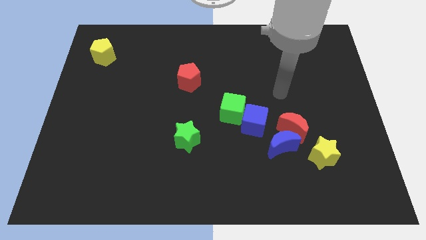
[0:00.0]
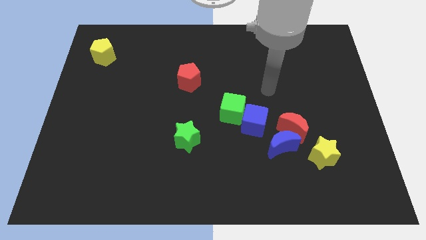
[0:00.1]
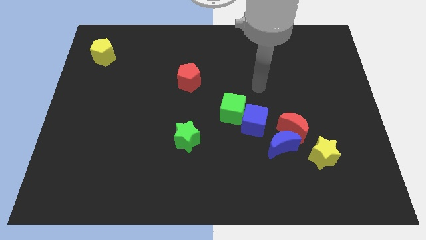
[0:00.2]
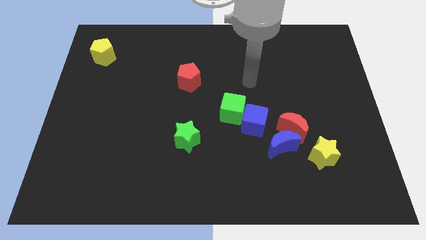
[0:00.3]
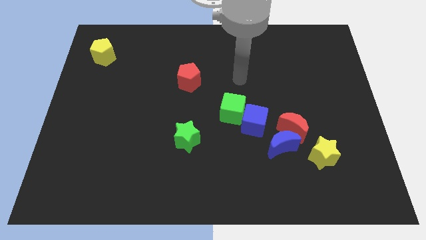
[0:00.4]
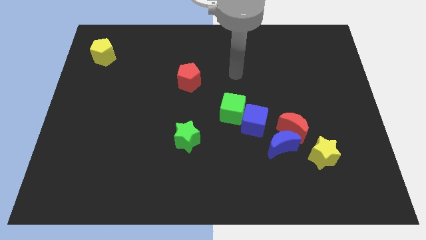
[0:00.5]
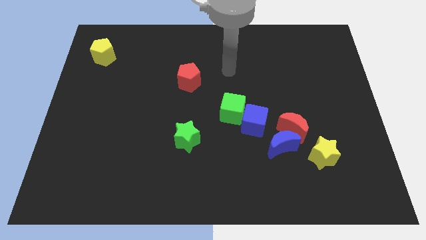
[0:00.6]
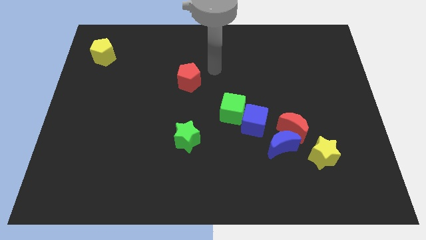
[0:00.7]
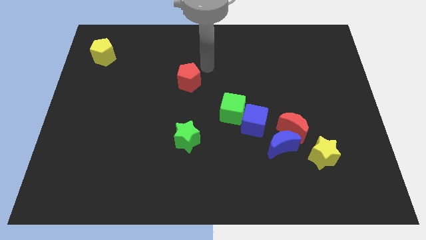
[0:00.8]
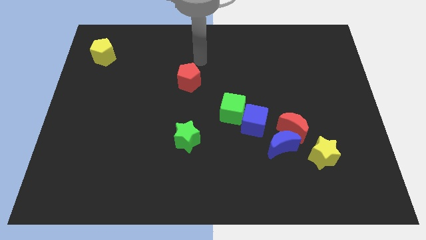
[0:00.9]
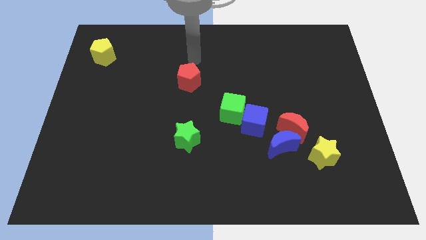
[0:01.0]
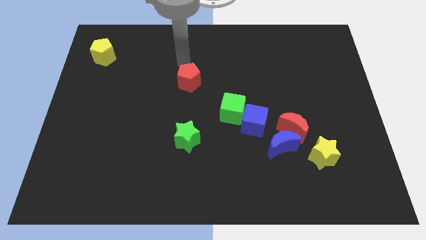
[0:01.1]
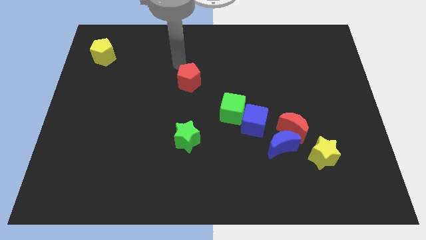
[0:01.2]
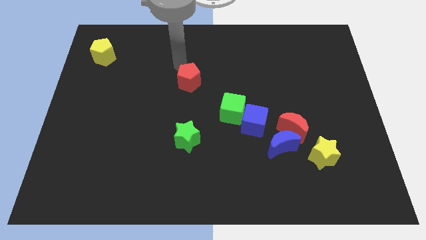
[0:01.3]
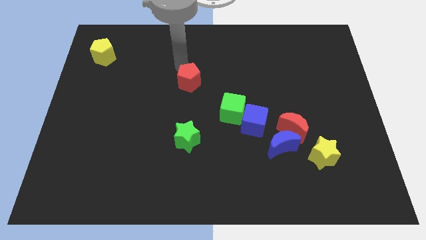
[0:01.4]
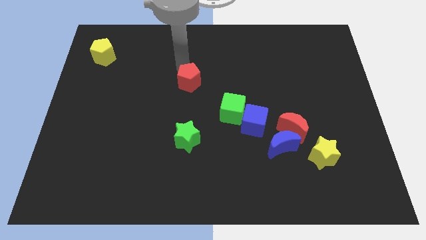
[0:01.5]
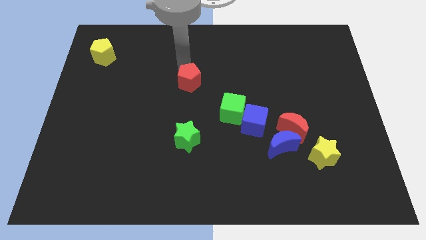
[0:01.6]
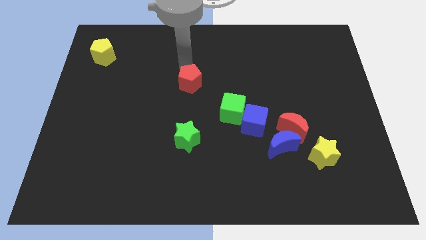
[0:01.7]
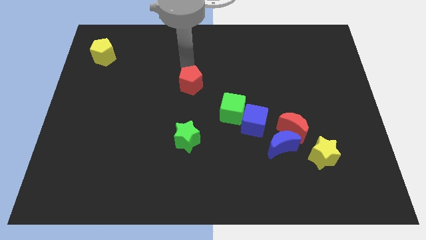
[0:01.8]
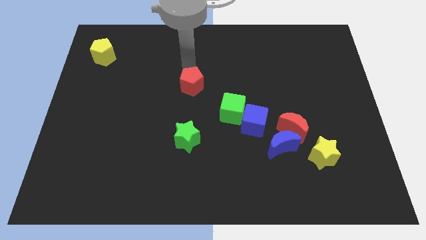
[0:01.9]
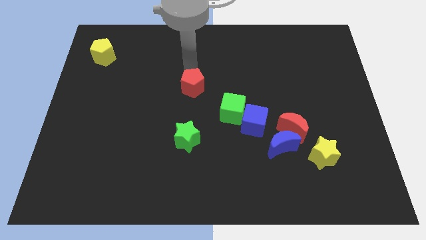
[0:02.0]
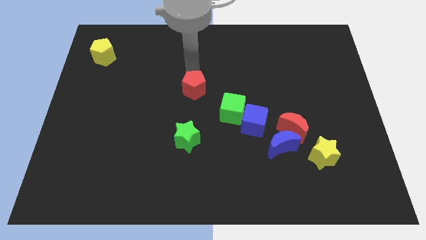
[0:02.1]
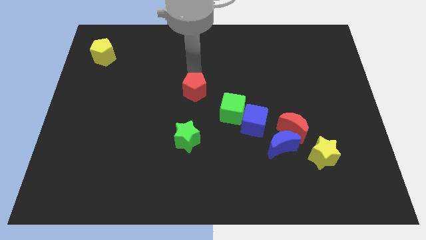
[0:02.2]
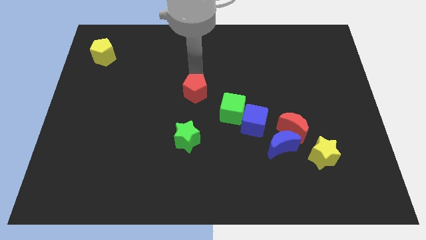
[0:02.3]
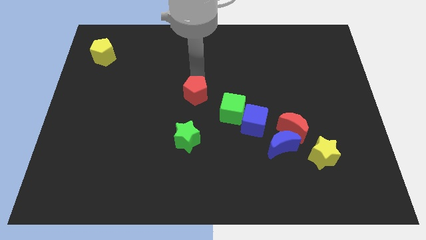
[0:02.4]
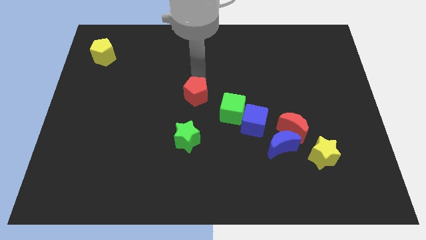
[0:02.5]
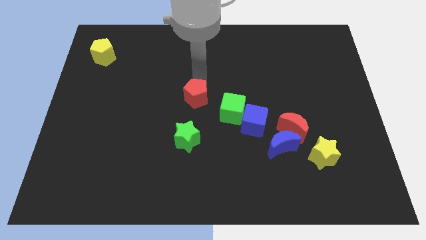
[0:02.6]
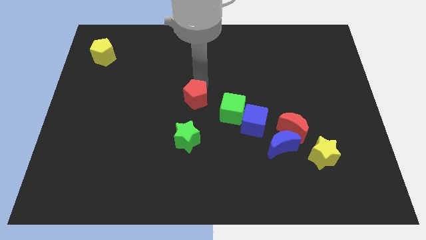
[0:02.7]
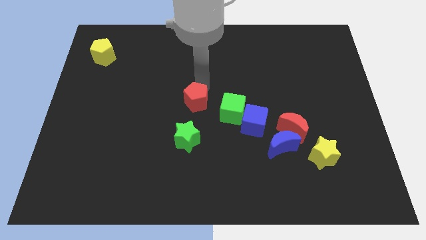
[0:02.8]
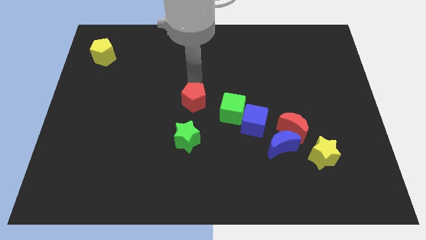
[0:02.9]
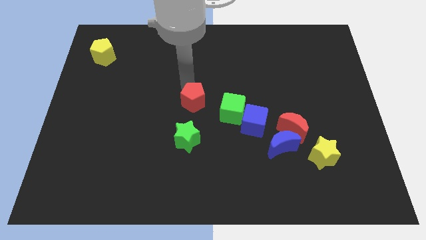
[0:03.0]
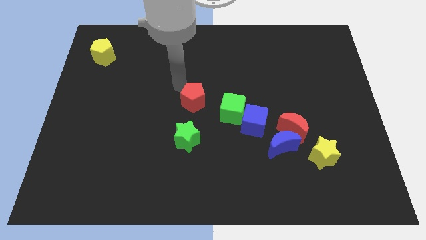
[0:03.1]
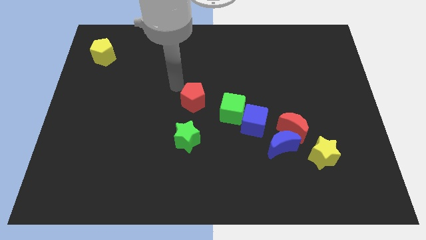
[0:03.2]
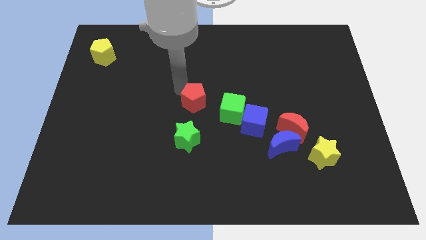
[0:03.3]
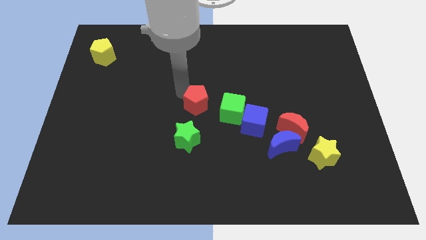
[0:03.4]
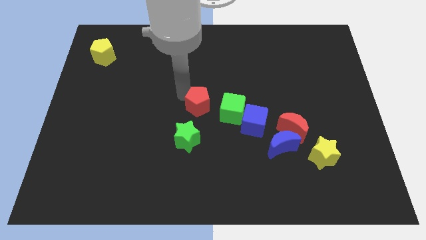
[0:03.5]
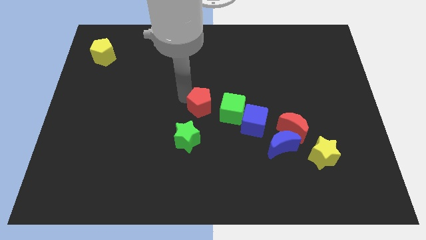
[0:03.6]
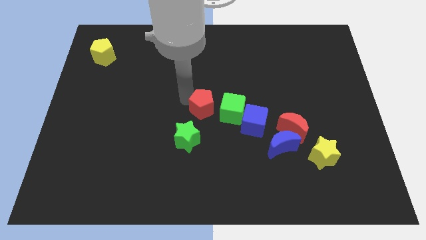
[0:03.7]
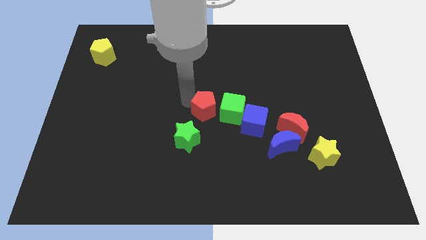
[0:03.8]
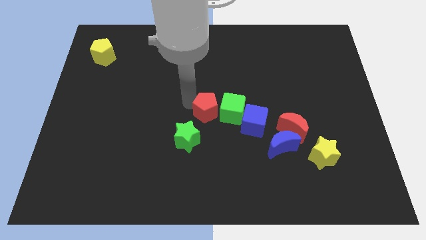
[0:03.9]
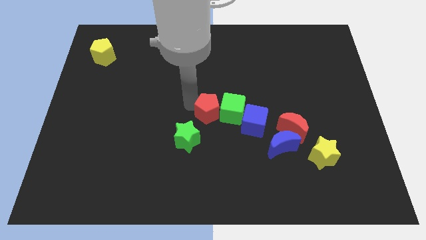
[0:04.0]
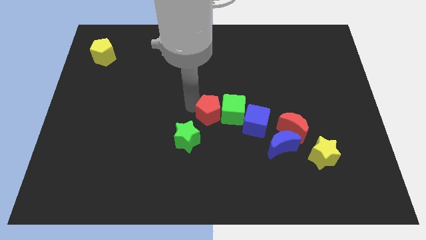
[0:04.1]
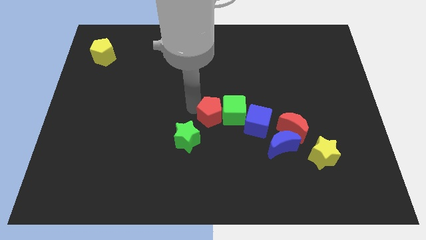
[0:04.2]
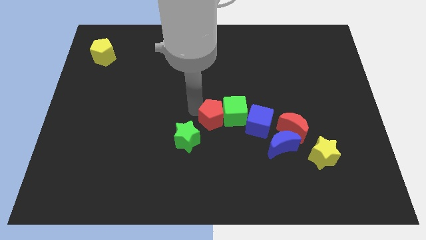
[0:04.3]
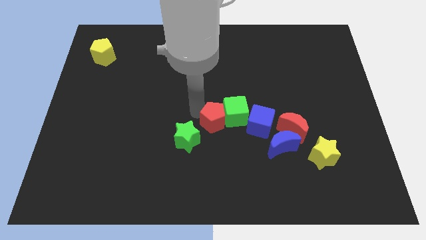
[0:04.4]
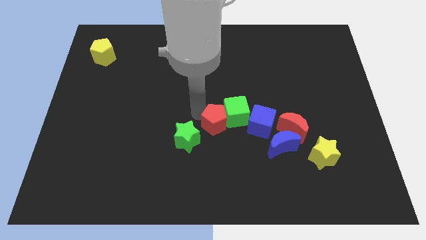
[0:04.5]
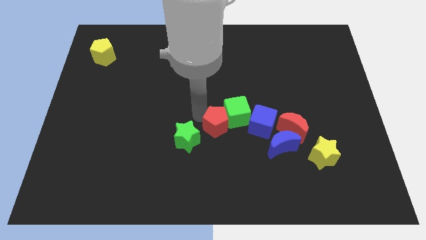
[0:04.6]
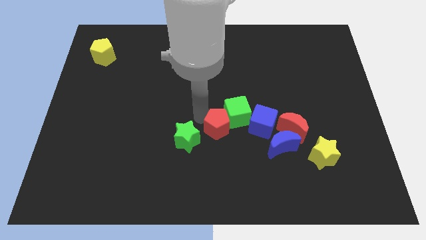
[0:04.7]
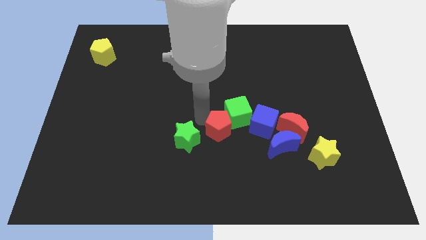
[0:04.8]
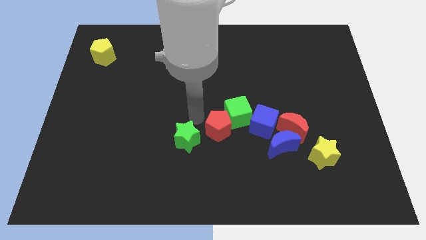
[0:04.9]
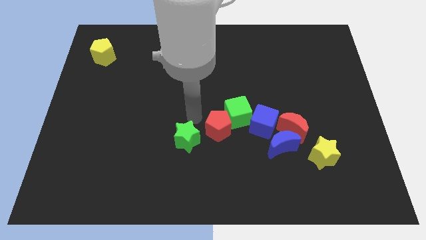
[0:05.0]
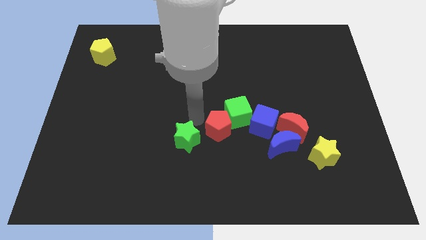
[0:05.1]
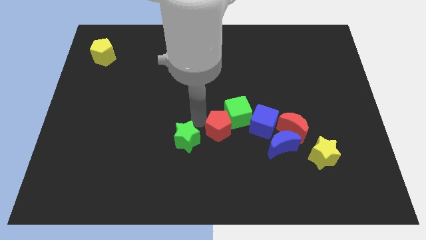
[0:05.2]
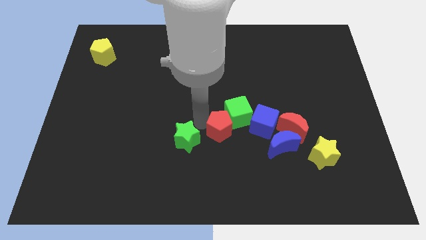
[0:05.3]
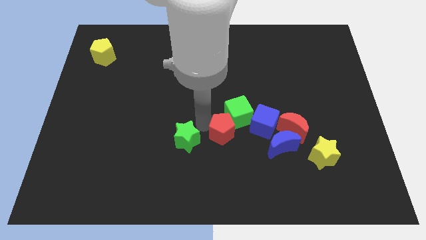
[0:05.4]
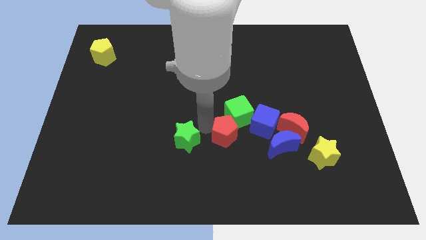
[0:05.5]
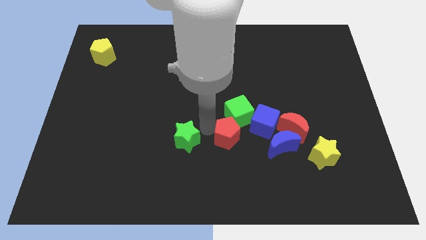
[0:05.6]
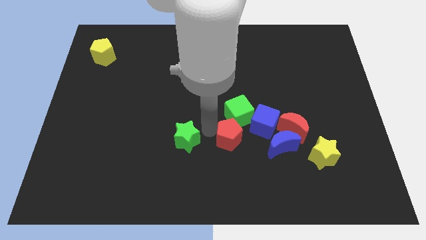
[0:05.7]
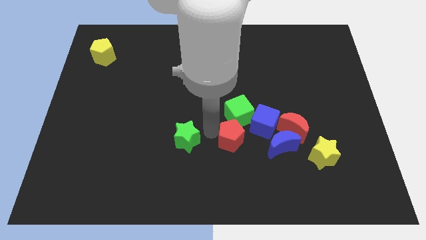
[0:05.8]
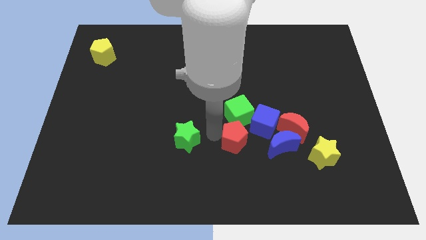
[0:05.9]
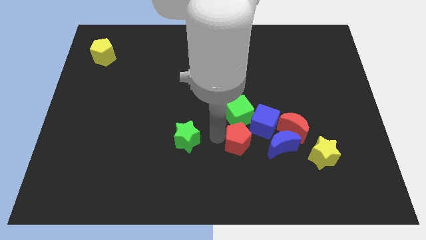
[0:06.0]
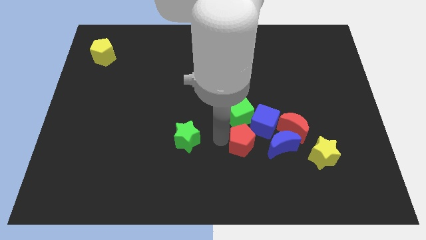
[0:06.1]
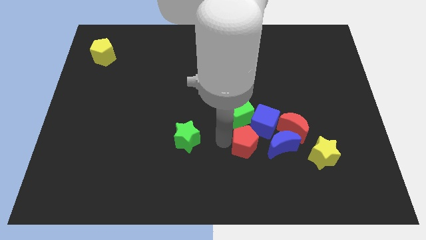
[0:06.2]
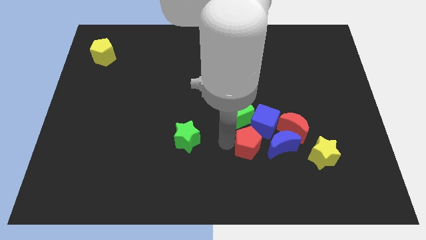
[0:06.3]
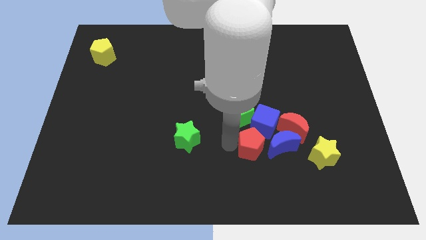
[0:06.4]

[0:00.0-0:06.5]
move the red pentagon just left of the yellow star

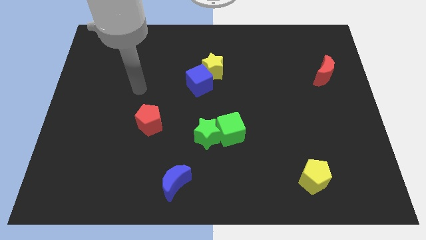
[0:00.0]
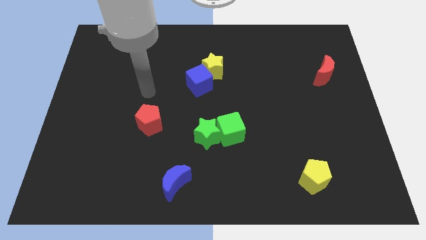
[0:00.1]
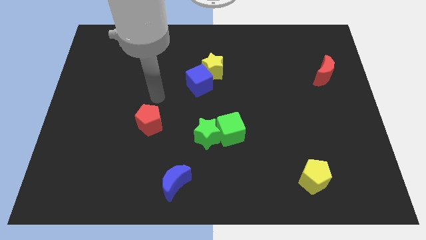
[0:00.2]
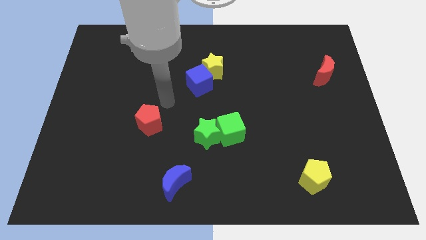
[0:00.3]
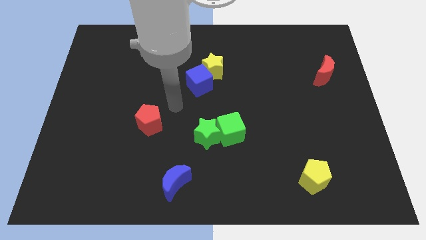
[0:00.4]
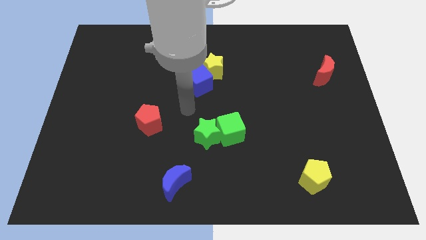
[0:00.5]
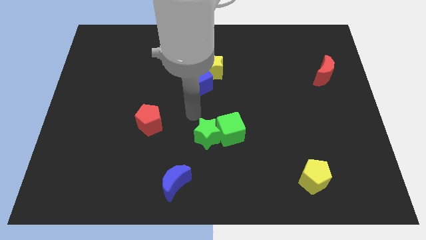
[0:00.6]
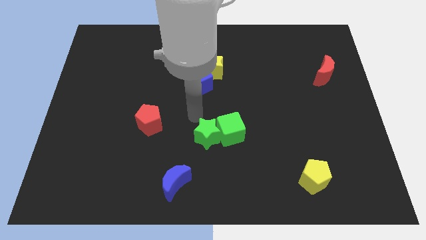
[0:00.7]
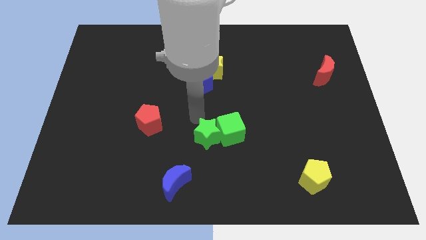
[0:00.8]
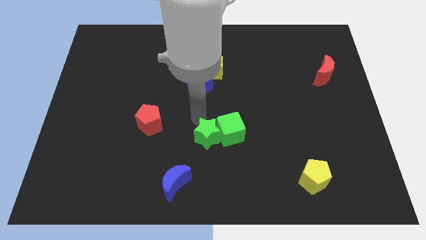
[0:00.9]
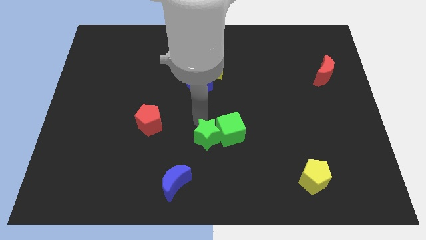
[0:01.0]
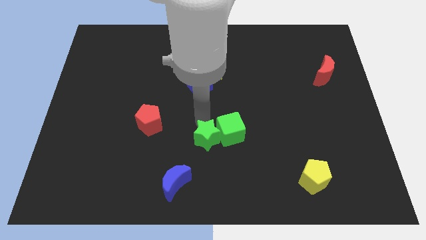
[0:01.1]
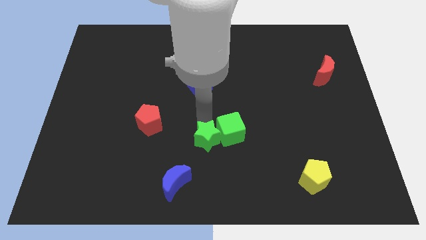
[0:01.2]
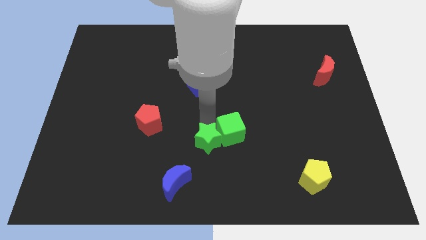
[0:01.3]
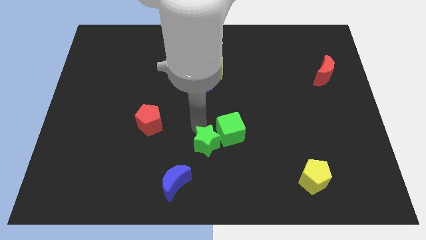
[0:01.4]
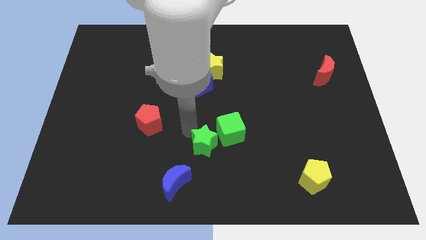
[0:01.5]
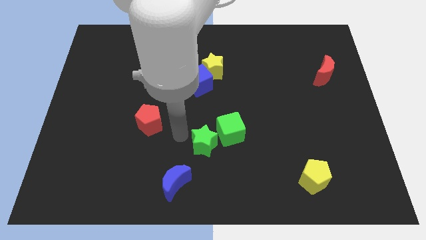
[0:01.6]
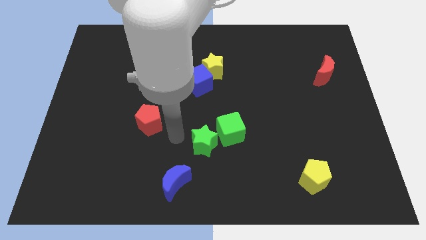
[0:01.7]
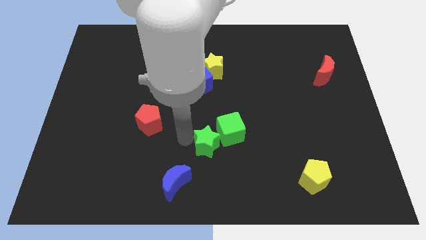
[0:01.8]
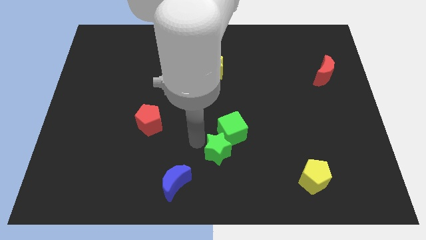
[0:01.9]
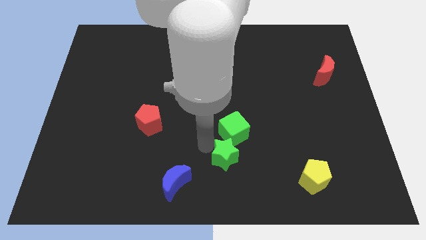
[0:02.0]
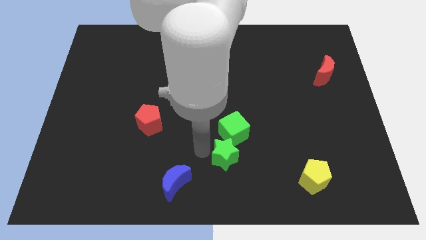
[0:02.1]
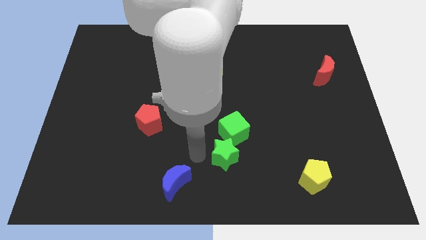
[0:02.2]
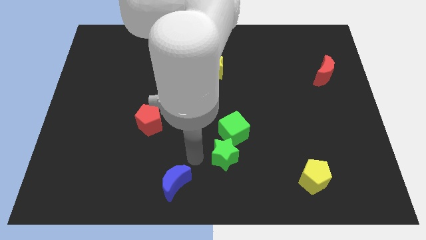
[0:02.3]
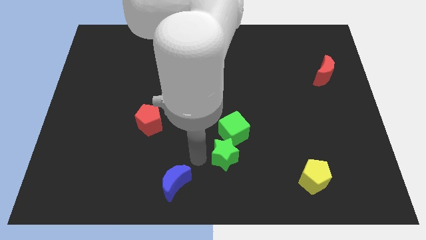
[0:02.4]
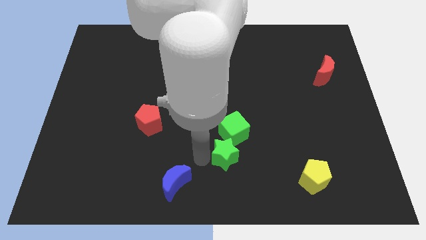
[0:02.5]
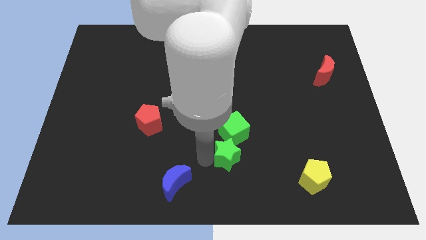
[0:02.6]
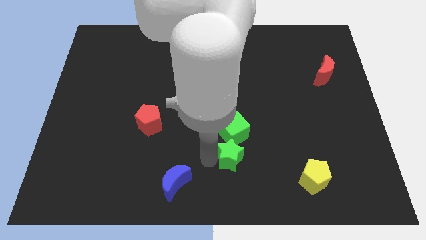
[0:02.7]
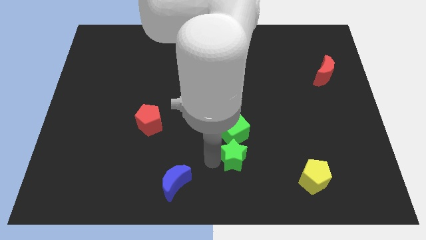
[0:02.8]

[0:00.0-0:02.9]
push the green star diagonally down and to the right of the green cube
